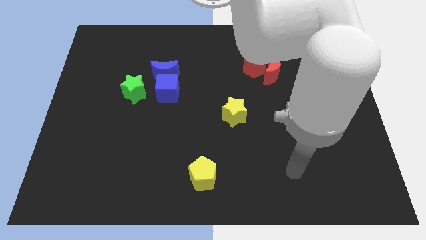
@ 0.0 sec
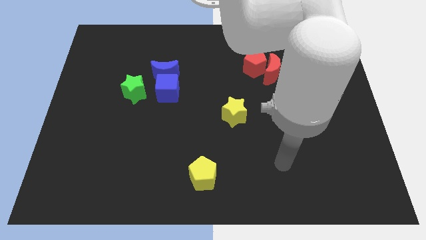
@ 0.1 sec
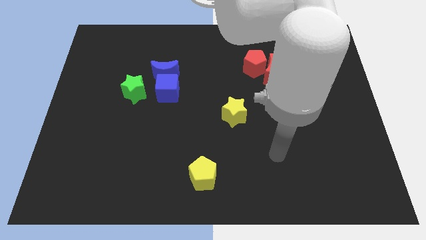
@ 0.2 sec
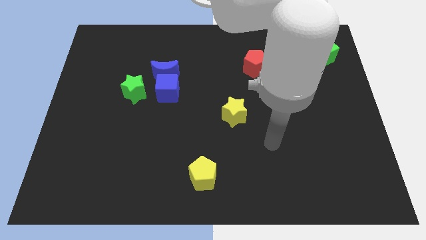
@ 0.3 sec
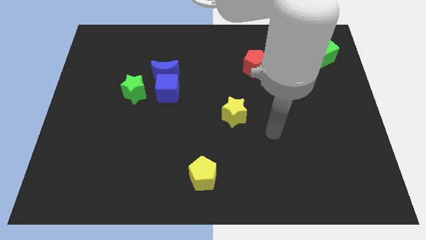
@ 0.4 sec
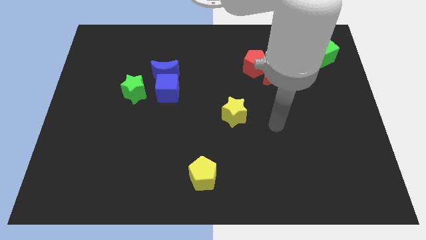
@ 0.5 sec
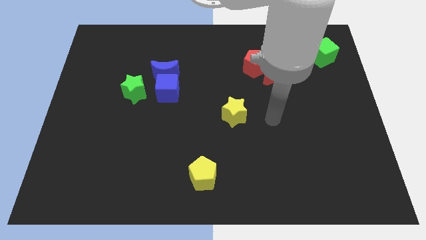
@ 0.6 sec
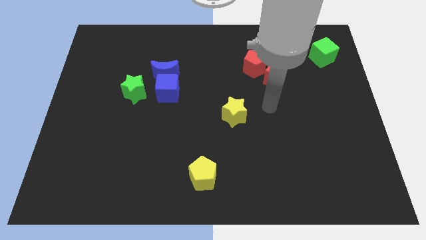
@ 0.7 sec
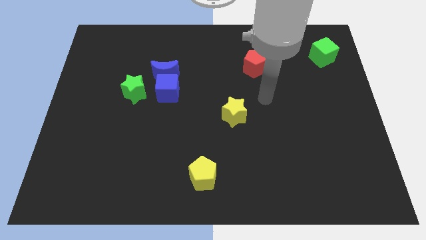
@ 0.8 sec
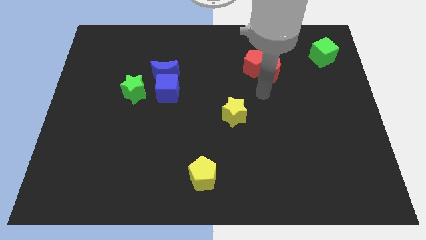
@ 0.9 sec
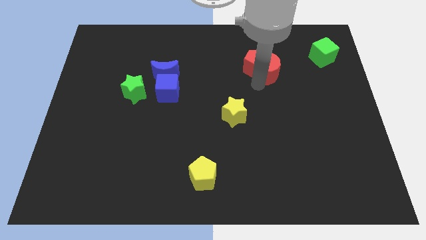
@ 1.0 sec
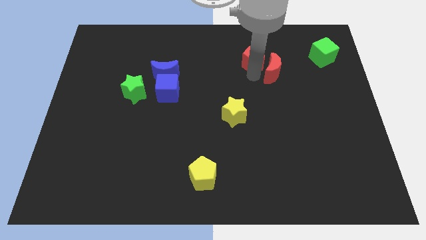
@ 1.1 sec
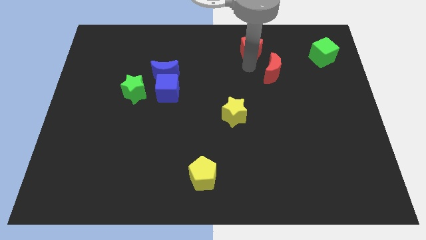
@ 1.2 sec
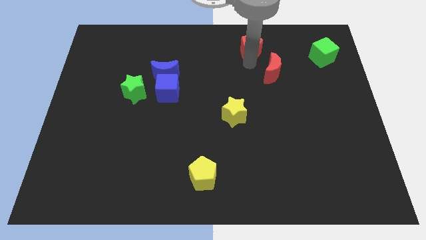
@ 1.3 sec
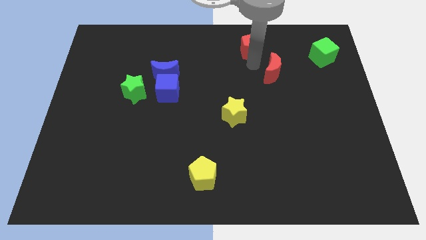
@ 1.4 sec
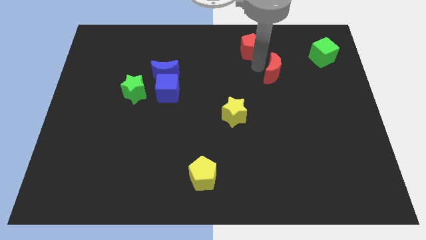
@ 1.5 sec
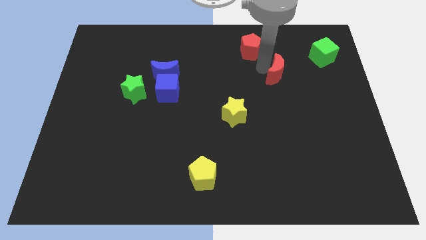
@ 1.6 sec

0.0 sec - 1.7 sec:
pull the red moon apart from the red pentagon

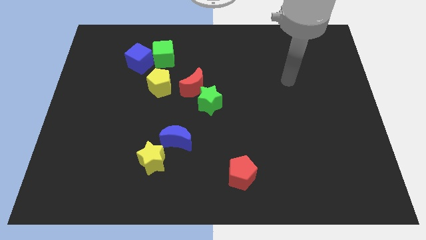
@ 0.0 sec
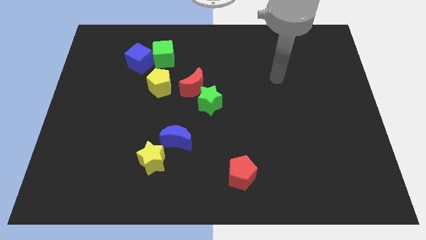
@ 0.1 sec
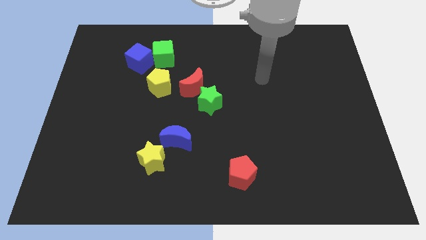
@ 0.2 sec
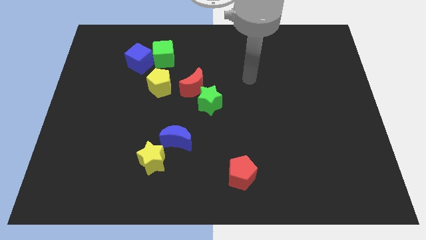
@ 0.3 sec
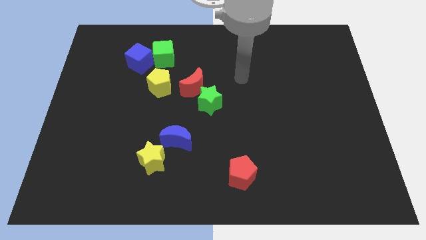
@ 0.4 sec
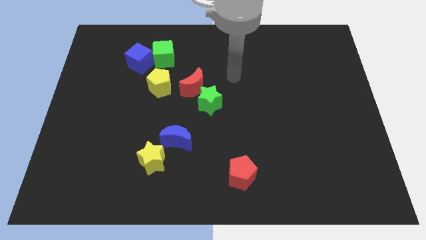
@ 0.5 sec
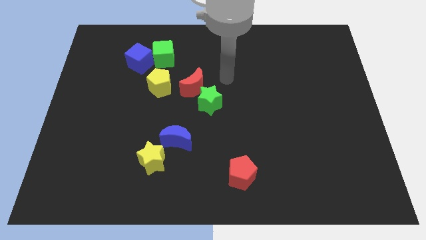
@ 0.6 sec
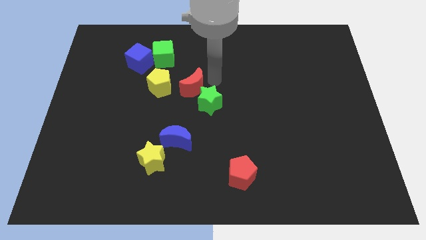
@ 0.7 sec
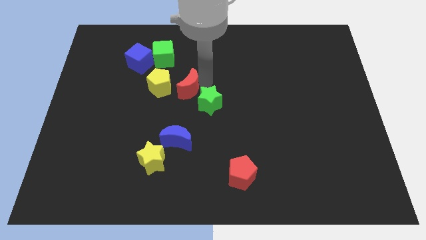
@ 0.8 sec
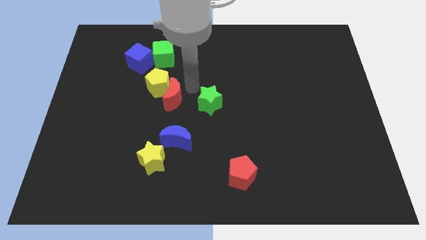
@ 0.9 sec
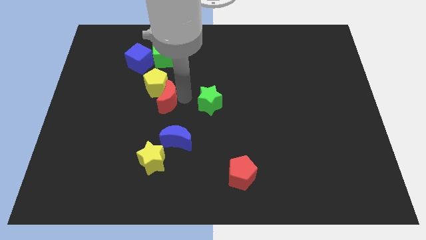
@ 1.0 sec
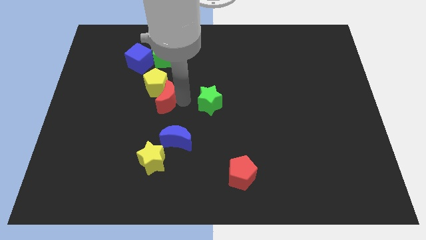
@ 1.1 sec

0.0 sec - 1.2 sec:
separate the green star from the red moon

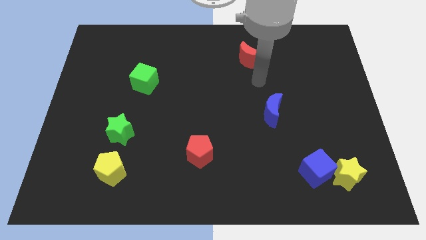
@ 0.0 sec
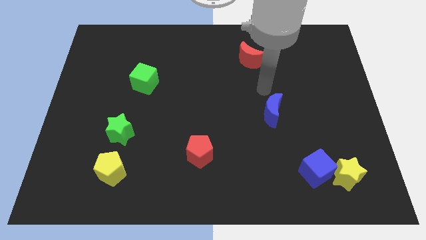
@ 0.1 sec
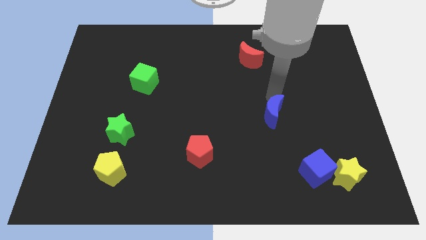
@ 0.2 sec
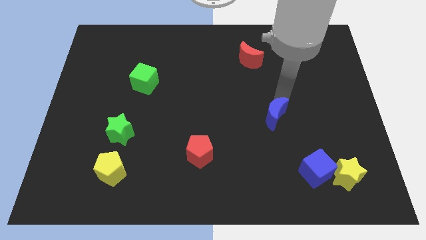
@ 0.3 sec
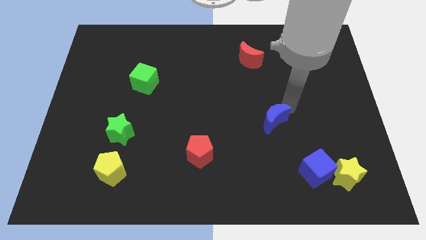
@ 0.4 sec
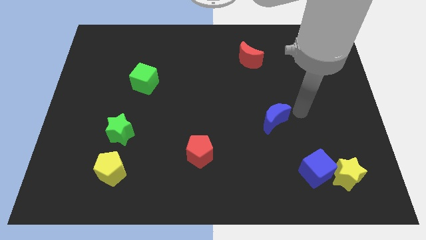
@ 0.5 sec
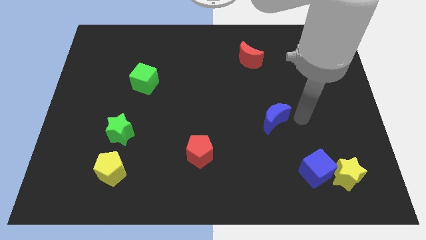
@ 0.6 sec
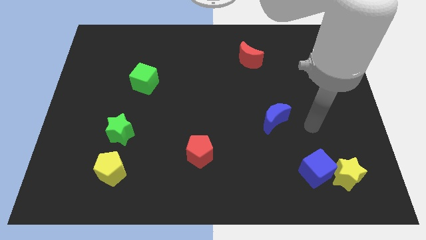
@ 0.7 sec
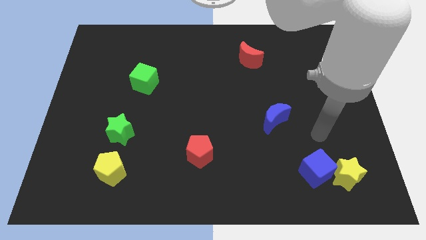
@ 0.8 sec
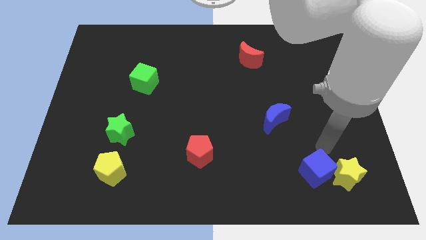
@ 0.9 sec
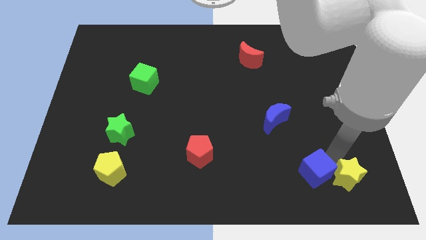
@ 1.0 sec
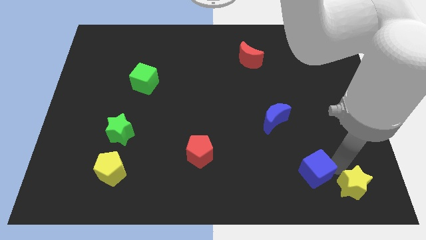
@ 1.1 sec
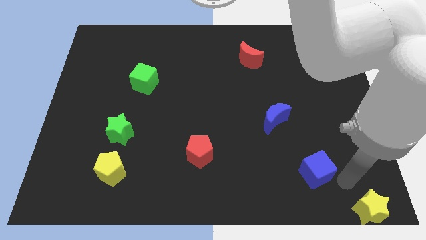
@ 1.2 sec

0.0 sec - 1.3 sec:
pull the blue cube apart from the yellow star

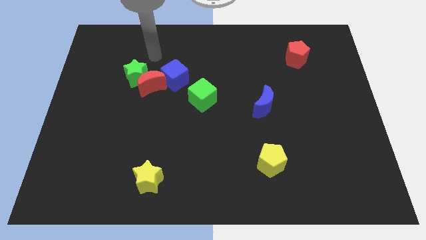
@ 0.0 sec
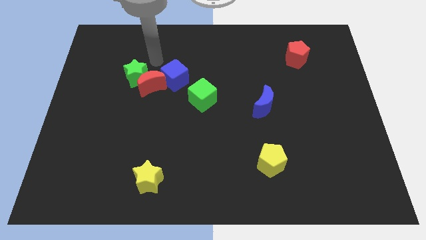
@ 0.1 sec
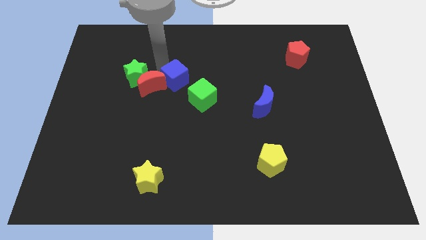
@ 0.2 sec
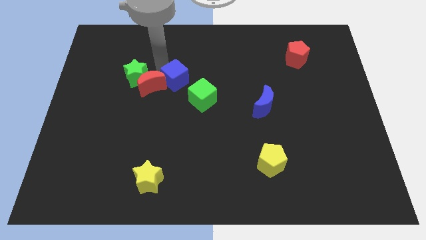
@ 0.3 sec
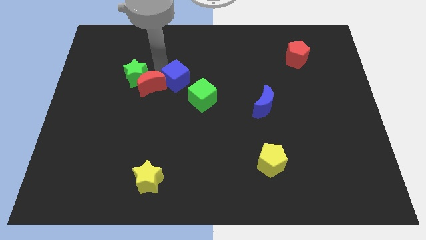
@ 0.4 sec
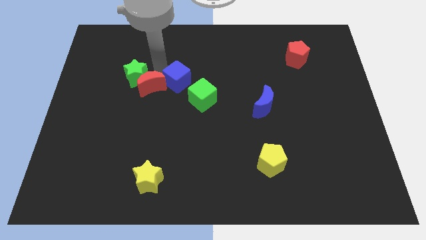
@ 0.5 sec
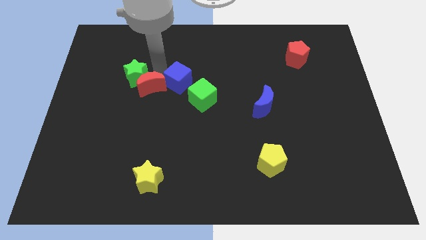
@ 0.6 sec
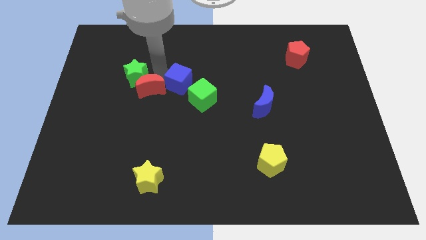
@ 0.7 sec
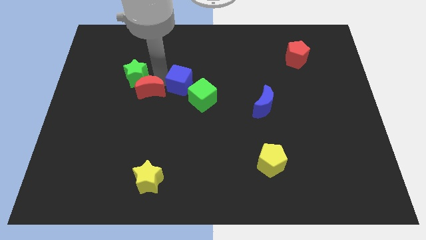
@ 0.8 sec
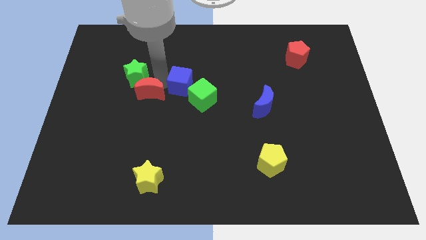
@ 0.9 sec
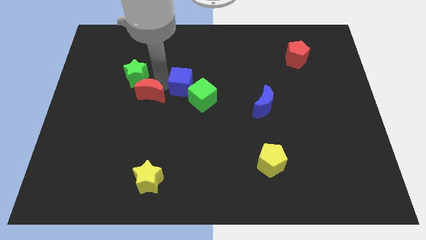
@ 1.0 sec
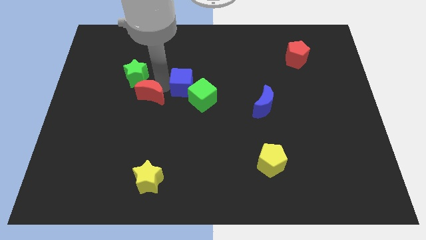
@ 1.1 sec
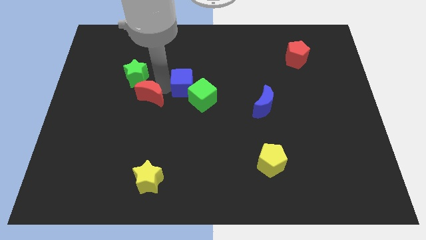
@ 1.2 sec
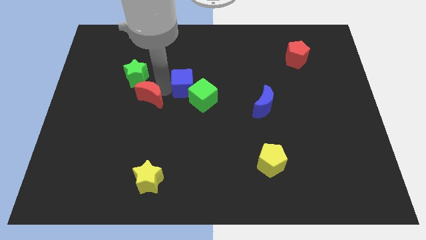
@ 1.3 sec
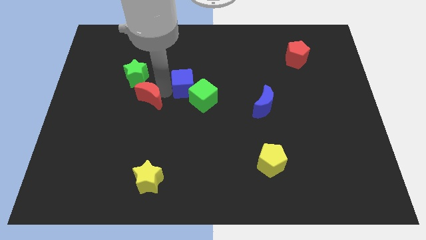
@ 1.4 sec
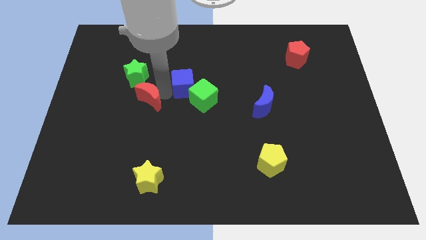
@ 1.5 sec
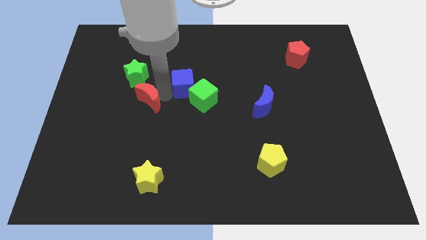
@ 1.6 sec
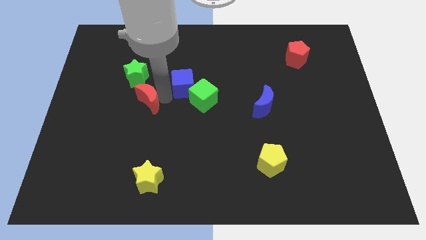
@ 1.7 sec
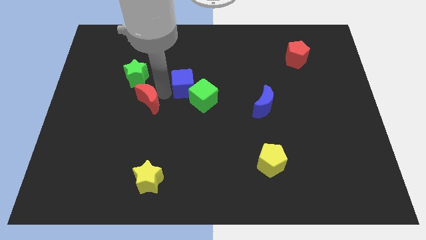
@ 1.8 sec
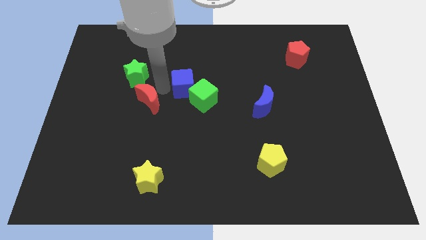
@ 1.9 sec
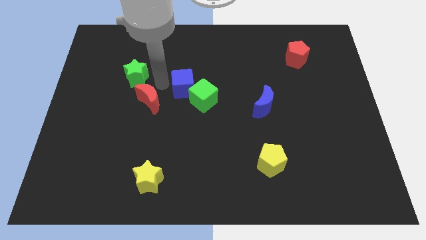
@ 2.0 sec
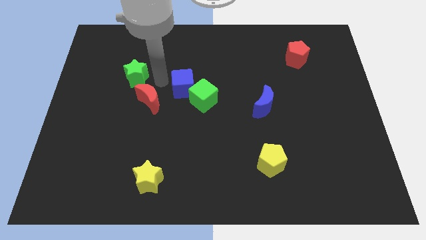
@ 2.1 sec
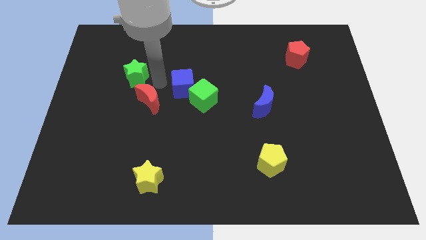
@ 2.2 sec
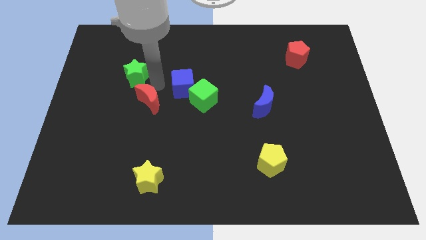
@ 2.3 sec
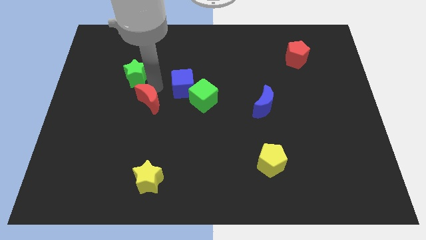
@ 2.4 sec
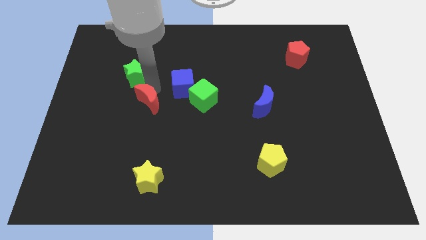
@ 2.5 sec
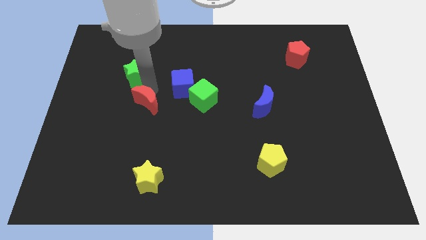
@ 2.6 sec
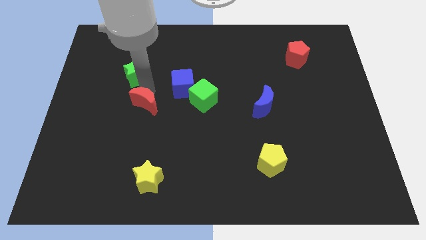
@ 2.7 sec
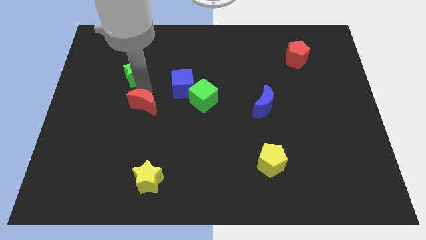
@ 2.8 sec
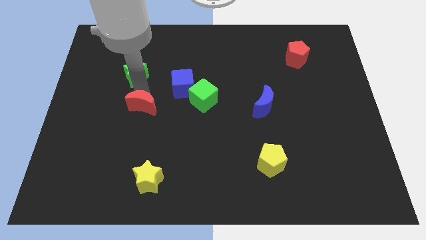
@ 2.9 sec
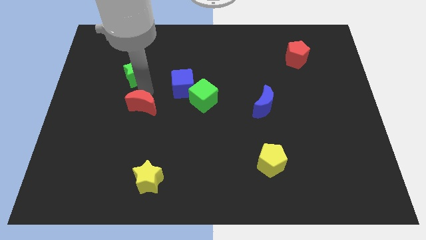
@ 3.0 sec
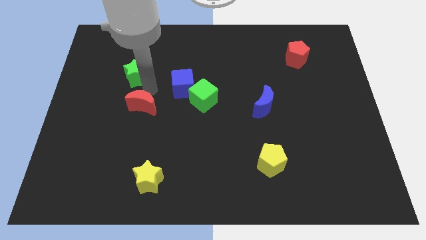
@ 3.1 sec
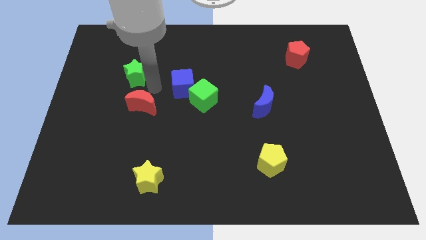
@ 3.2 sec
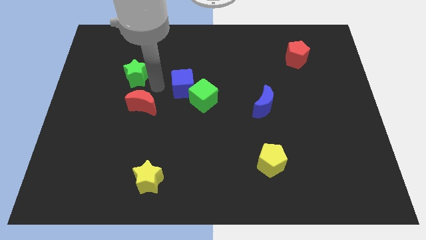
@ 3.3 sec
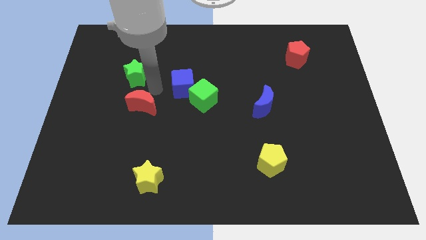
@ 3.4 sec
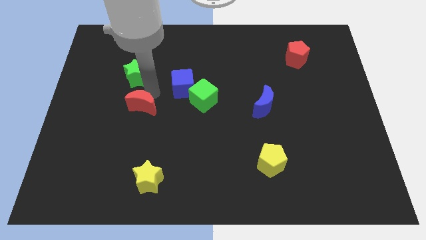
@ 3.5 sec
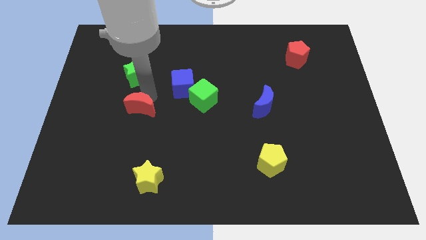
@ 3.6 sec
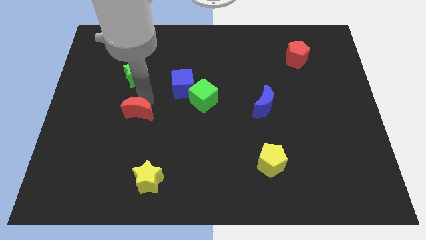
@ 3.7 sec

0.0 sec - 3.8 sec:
move the red moon away from the green star and blue cube

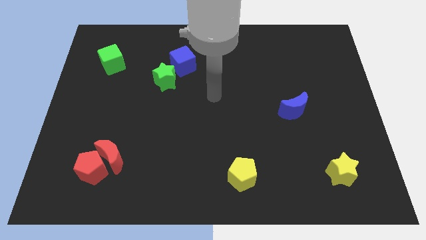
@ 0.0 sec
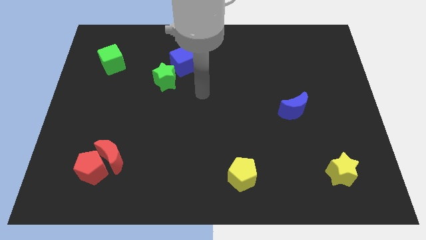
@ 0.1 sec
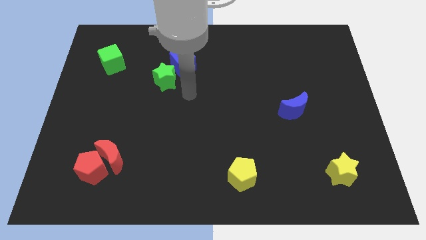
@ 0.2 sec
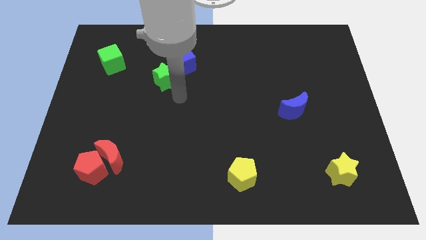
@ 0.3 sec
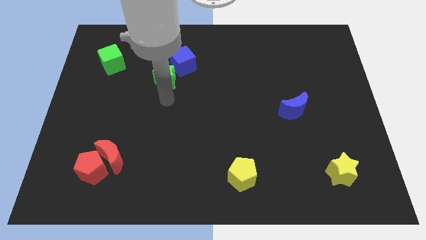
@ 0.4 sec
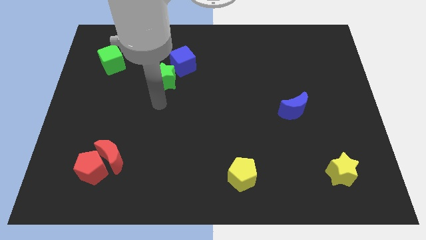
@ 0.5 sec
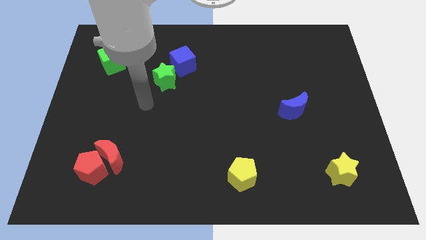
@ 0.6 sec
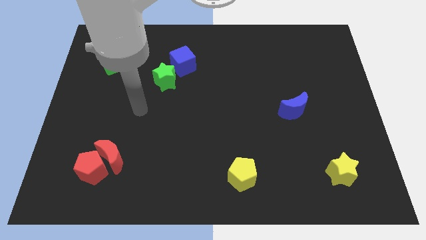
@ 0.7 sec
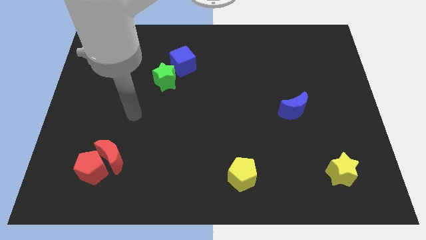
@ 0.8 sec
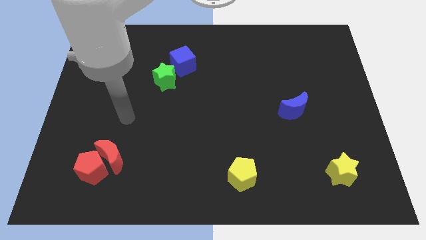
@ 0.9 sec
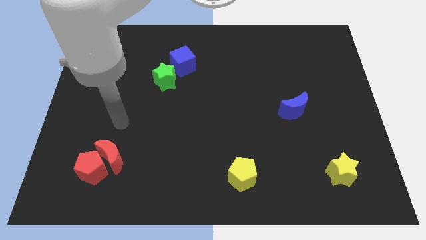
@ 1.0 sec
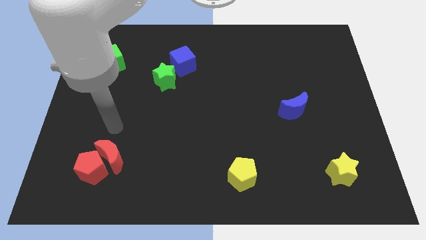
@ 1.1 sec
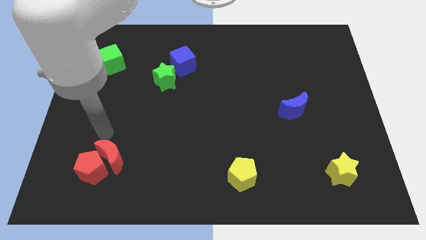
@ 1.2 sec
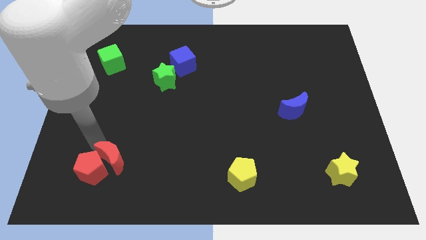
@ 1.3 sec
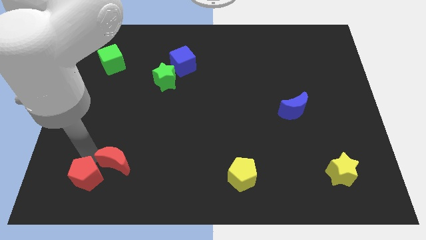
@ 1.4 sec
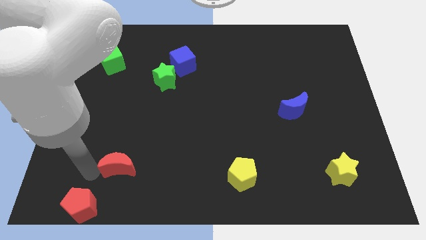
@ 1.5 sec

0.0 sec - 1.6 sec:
separate the red moon from the red pentagon
